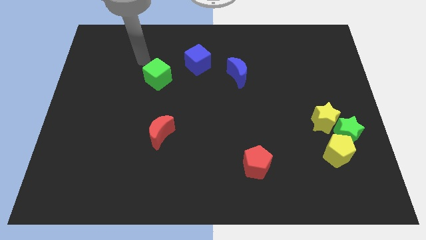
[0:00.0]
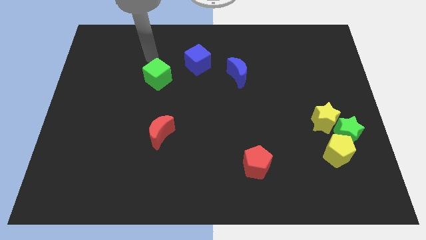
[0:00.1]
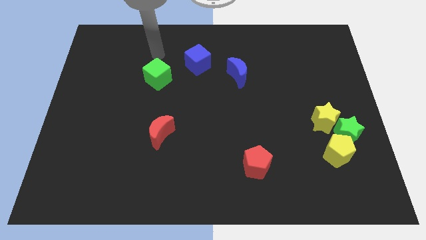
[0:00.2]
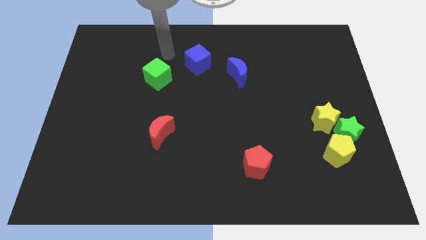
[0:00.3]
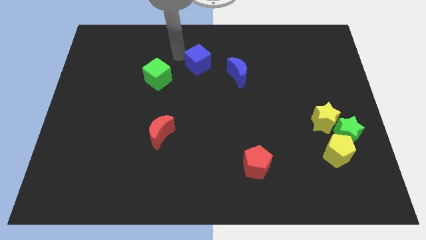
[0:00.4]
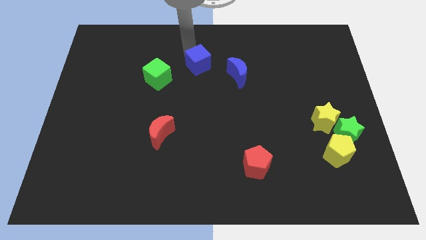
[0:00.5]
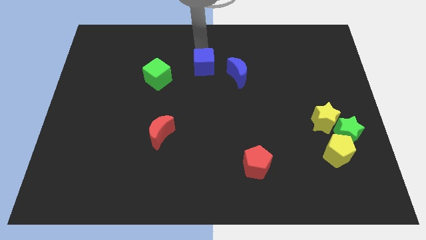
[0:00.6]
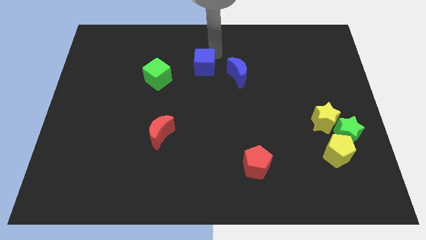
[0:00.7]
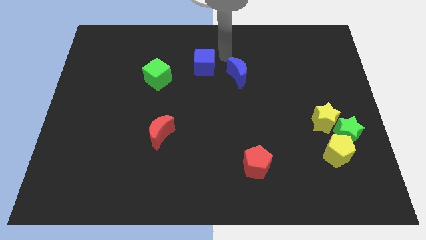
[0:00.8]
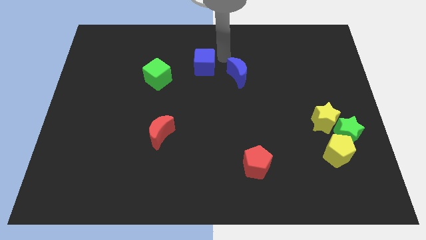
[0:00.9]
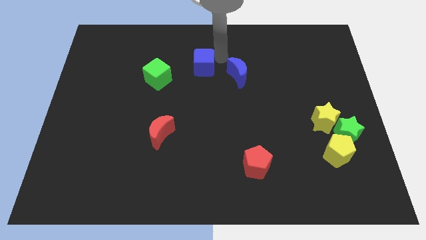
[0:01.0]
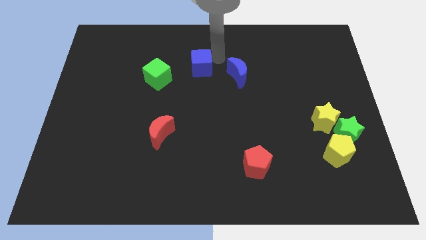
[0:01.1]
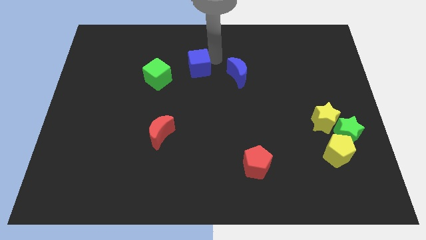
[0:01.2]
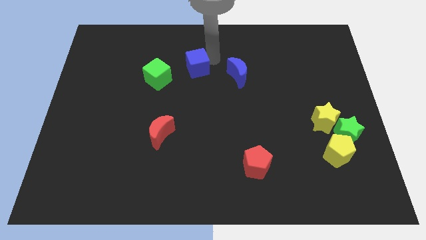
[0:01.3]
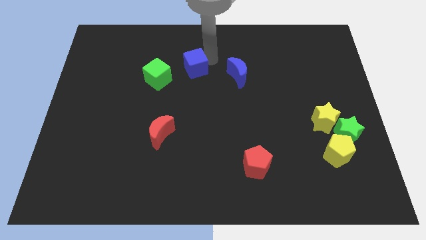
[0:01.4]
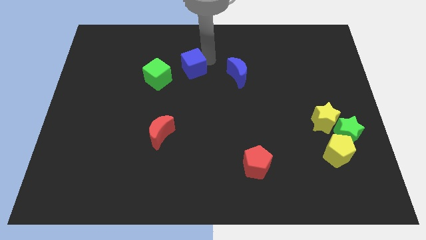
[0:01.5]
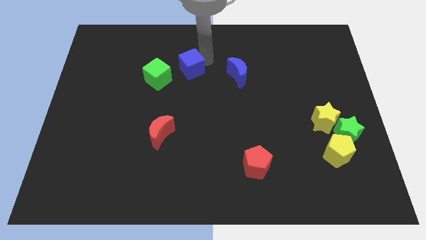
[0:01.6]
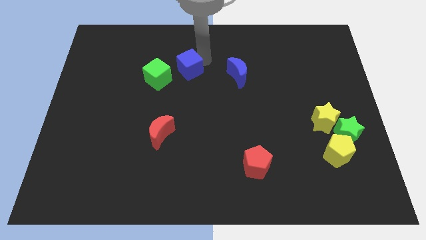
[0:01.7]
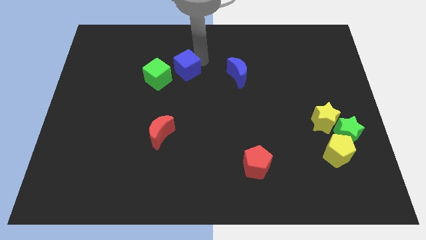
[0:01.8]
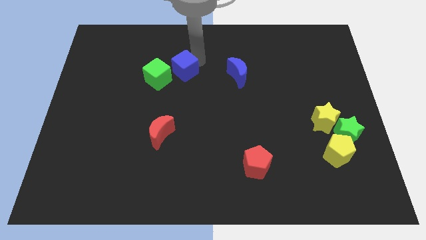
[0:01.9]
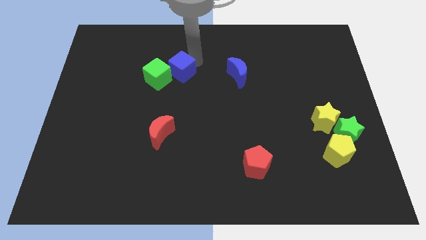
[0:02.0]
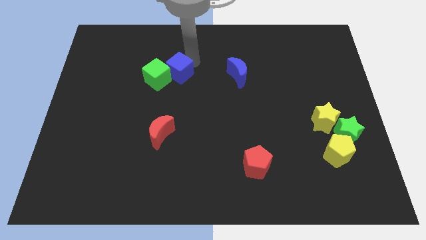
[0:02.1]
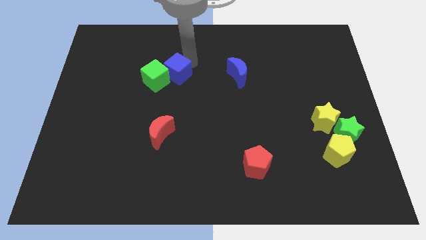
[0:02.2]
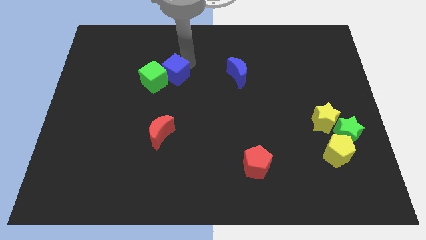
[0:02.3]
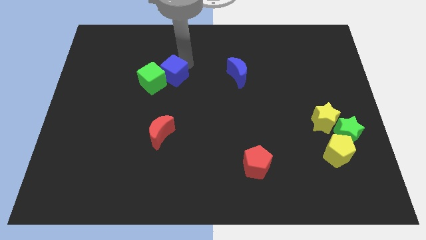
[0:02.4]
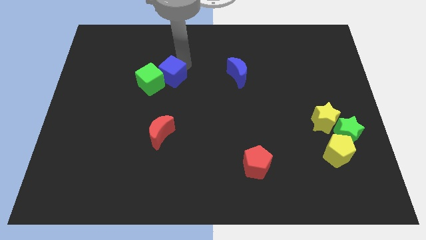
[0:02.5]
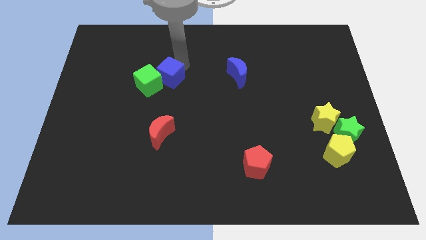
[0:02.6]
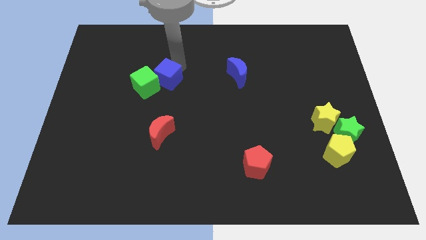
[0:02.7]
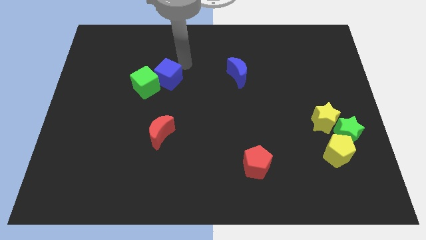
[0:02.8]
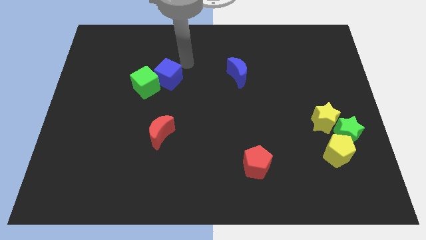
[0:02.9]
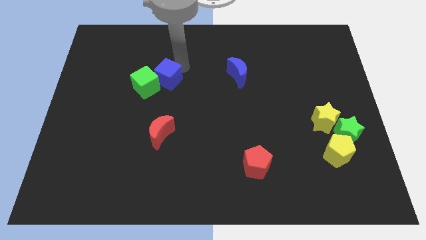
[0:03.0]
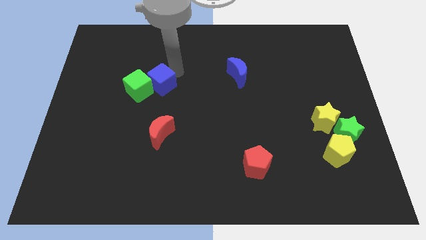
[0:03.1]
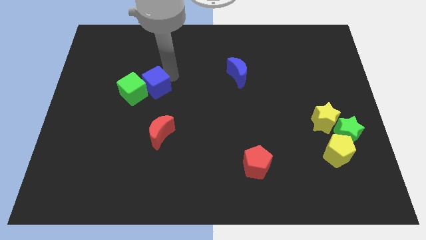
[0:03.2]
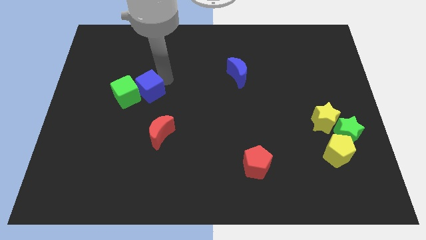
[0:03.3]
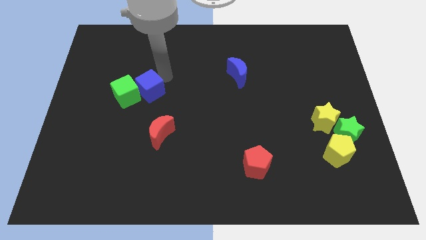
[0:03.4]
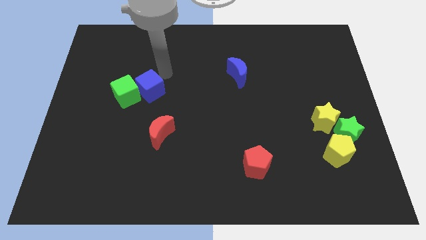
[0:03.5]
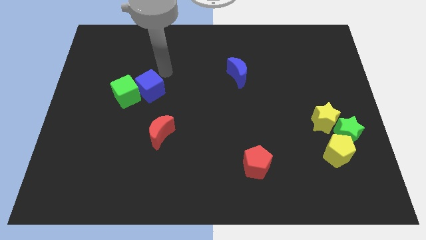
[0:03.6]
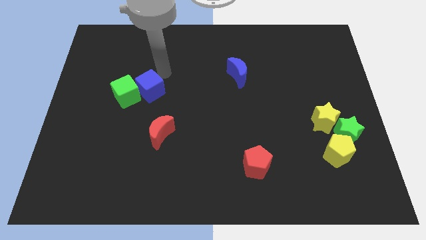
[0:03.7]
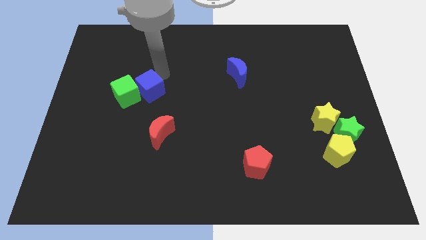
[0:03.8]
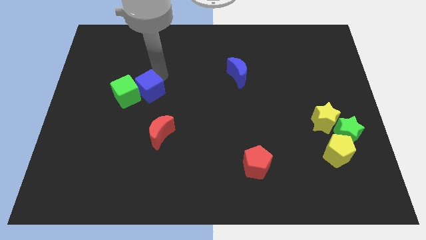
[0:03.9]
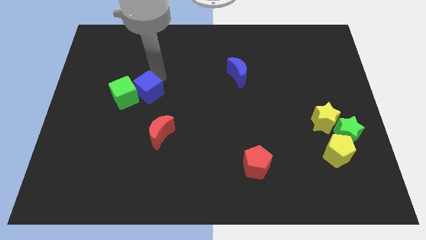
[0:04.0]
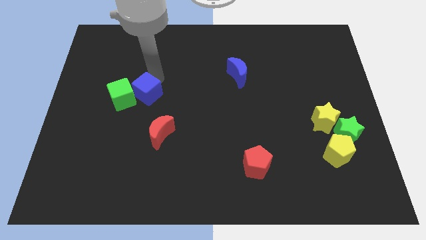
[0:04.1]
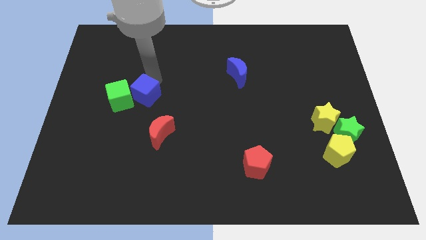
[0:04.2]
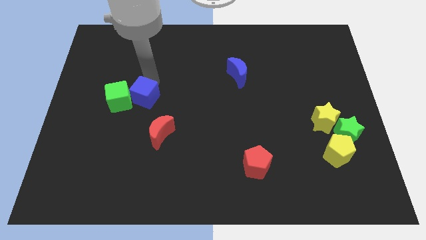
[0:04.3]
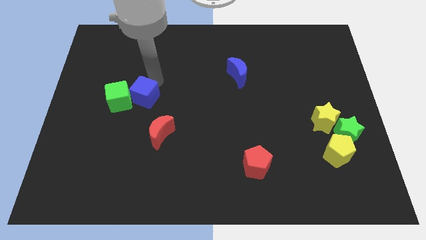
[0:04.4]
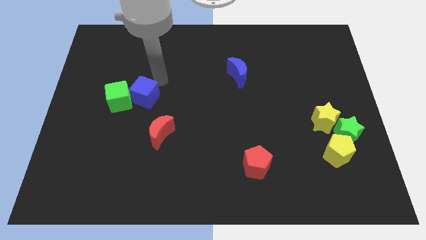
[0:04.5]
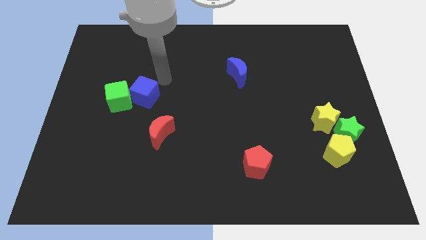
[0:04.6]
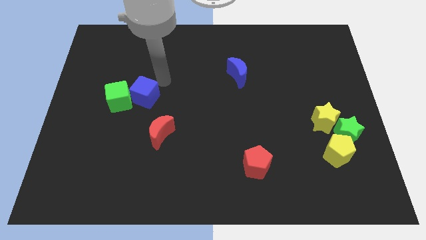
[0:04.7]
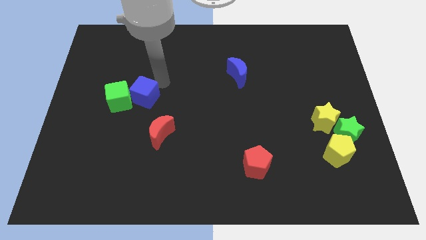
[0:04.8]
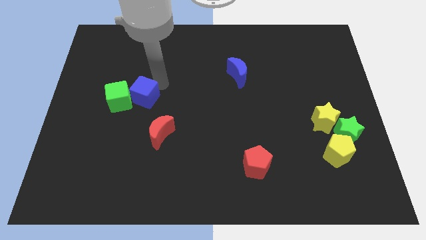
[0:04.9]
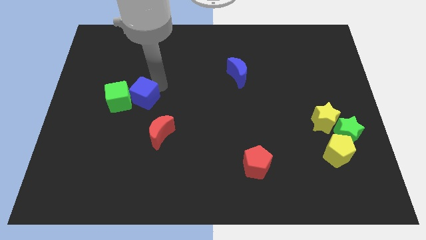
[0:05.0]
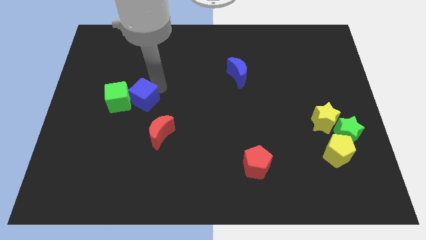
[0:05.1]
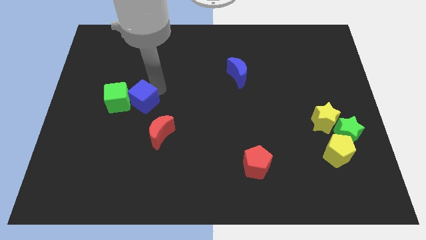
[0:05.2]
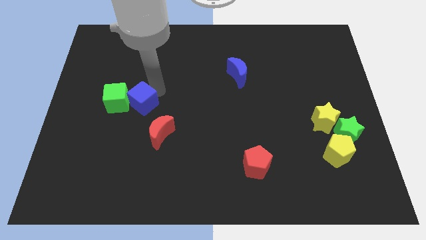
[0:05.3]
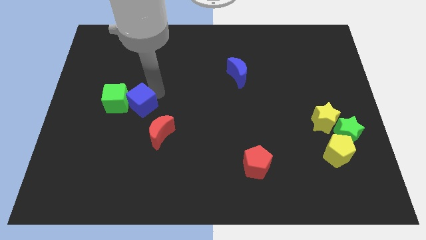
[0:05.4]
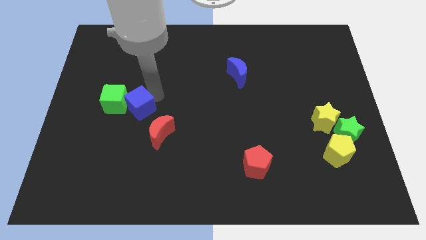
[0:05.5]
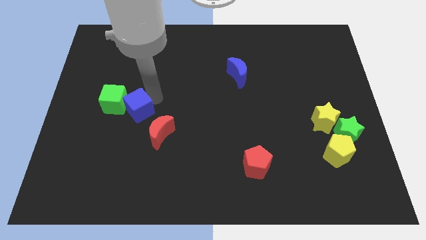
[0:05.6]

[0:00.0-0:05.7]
slide the blue cube downwards and to the left diagonally

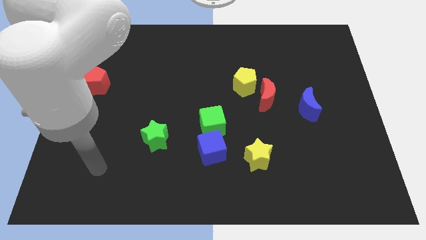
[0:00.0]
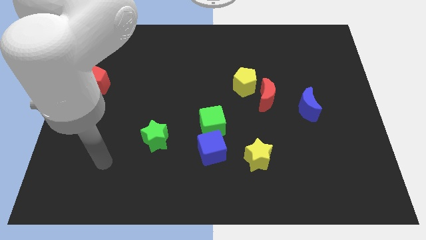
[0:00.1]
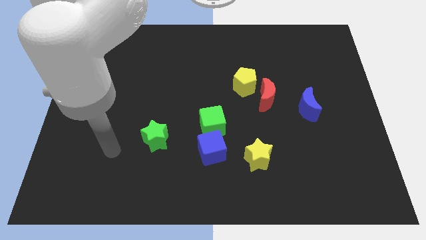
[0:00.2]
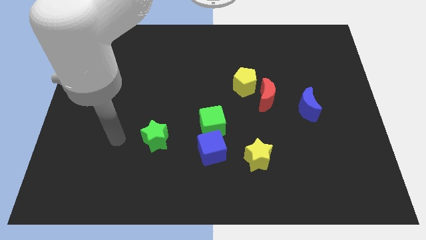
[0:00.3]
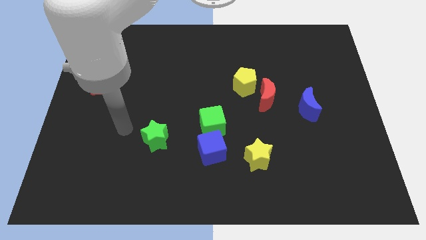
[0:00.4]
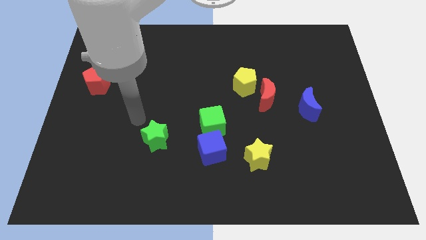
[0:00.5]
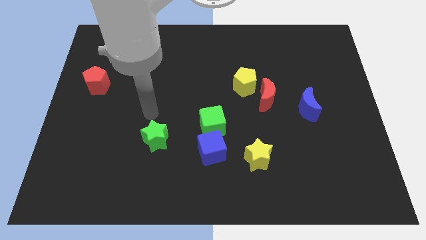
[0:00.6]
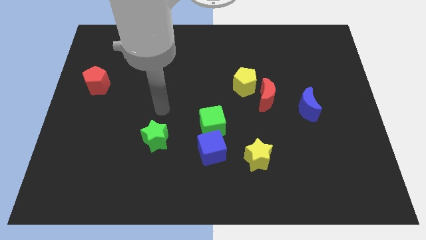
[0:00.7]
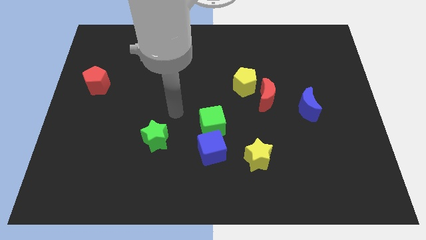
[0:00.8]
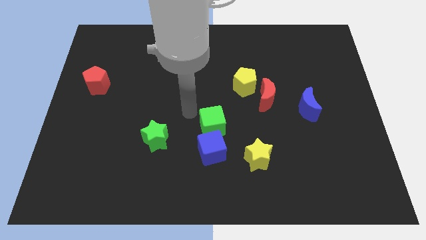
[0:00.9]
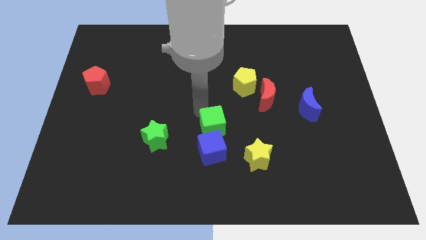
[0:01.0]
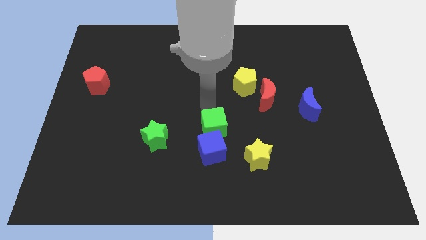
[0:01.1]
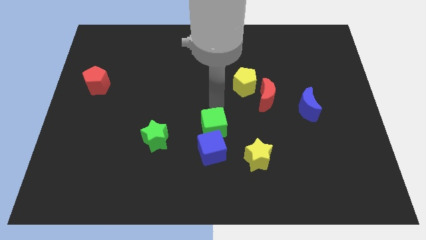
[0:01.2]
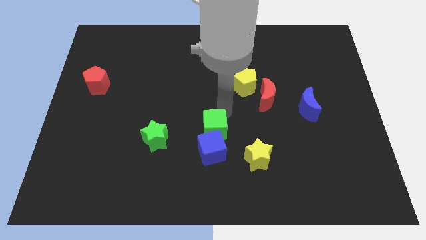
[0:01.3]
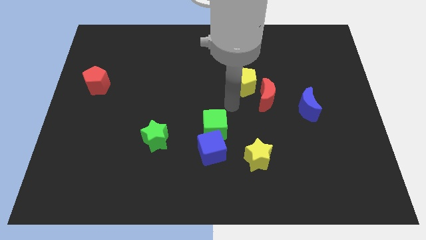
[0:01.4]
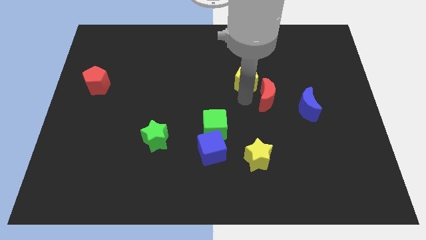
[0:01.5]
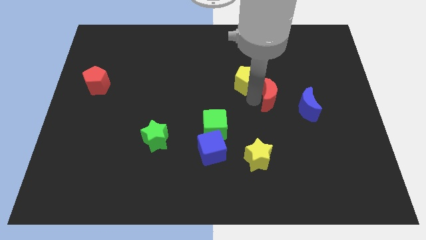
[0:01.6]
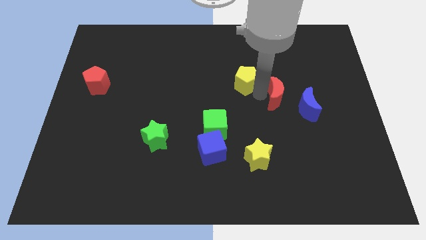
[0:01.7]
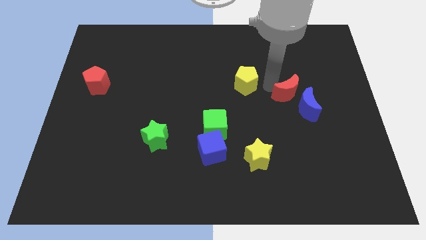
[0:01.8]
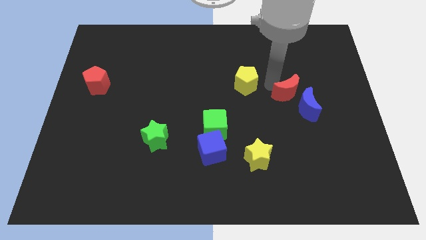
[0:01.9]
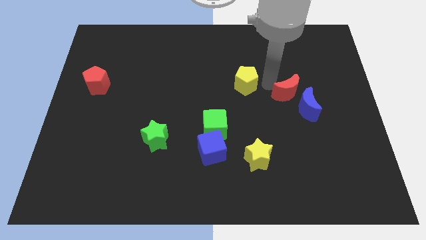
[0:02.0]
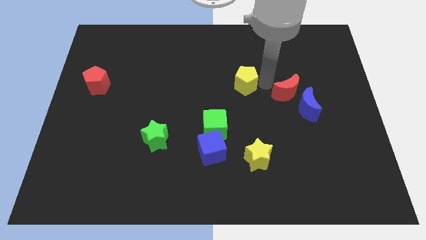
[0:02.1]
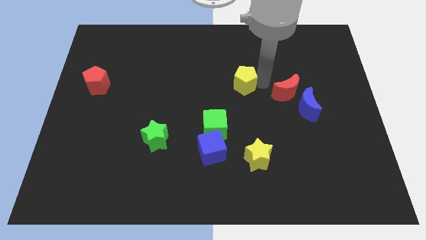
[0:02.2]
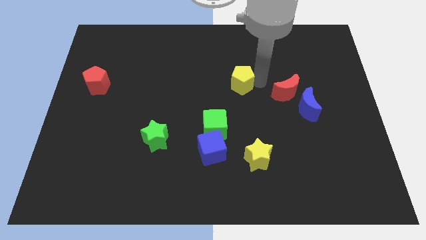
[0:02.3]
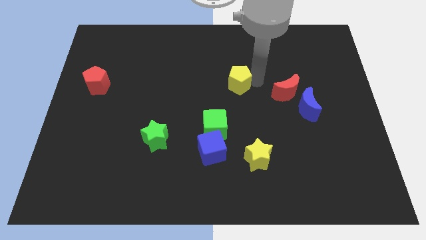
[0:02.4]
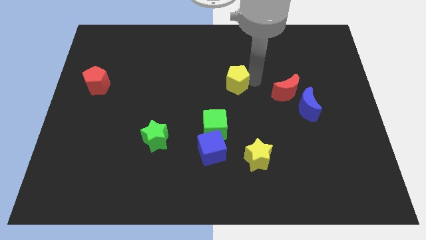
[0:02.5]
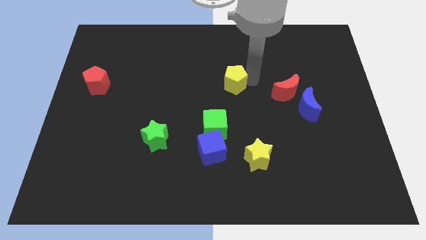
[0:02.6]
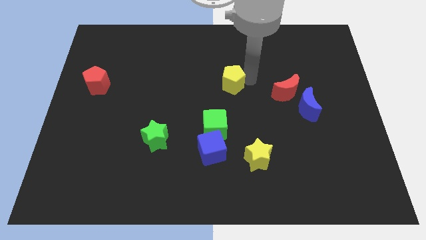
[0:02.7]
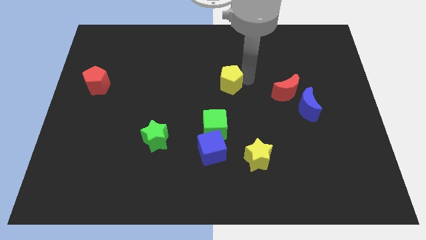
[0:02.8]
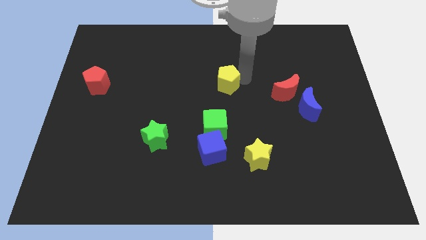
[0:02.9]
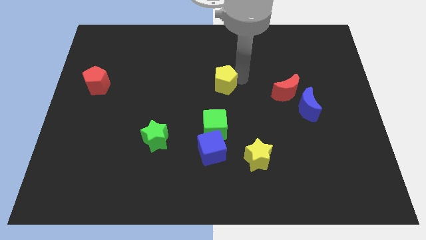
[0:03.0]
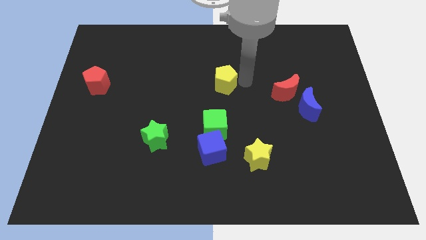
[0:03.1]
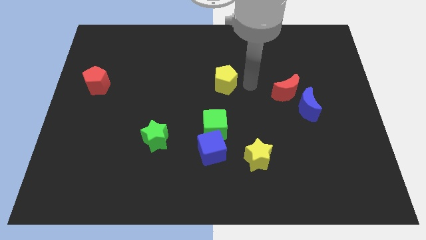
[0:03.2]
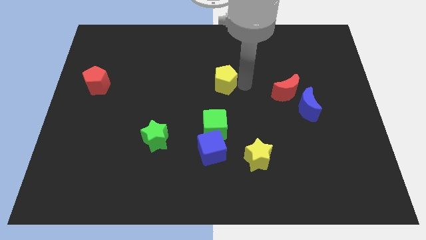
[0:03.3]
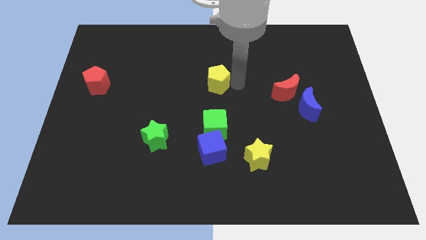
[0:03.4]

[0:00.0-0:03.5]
slightly move the yellow pentagon to the left
